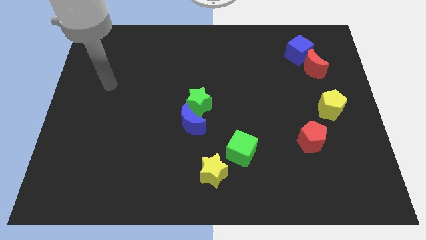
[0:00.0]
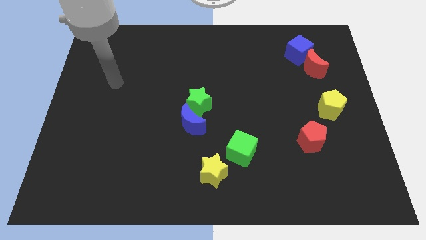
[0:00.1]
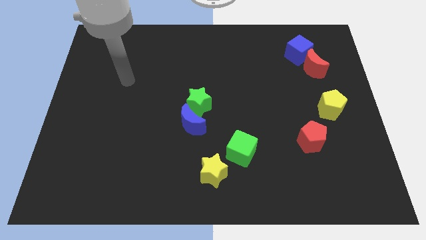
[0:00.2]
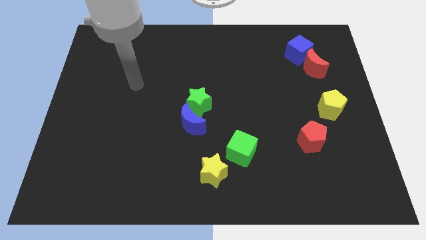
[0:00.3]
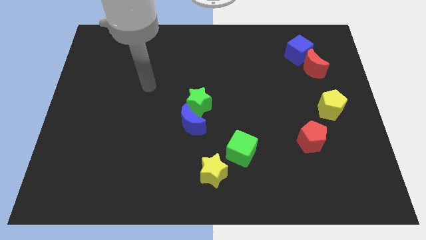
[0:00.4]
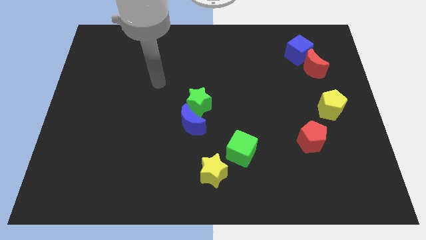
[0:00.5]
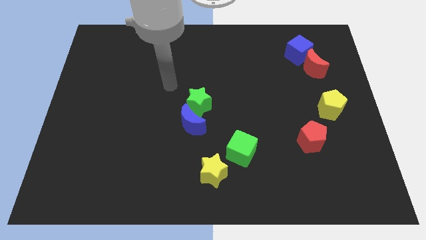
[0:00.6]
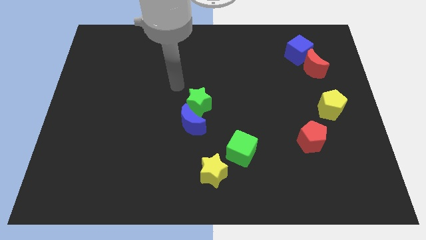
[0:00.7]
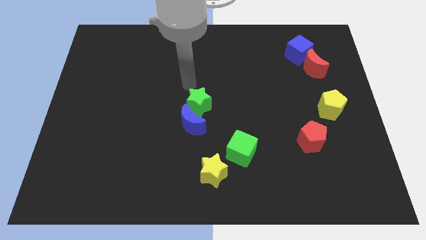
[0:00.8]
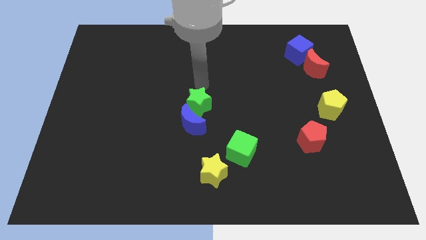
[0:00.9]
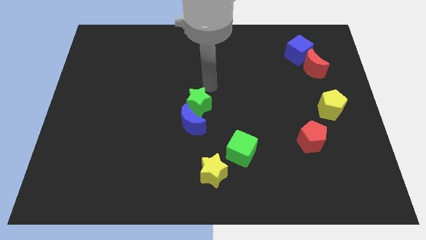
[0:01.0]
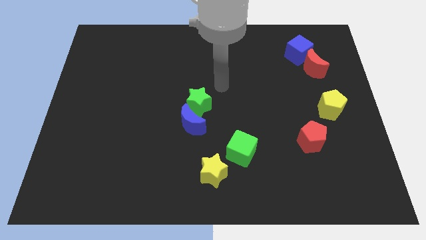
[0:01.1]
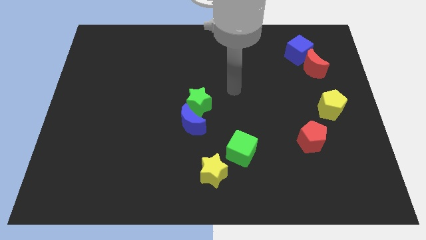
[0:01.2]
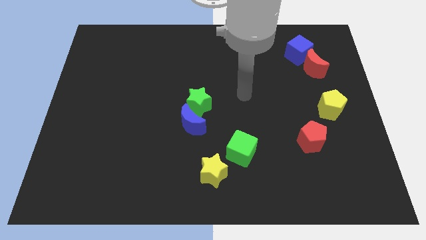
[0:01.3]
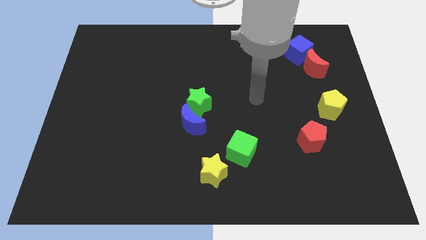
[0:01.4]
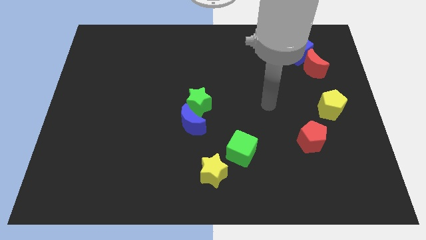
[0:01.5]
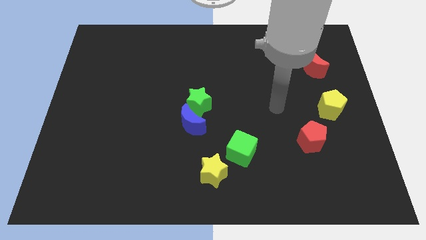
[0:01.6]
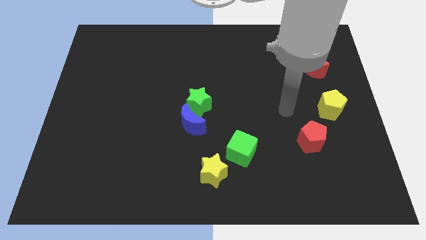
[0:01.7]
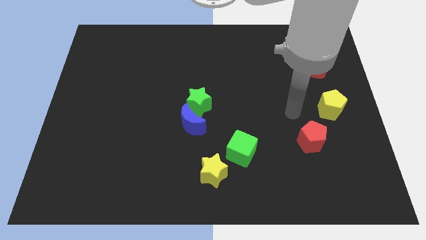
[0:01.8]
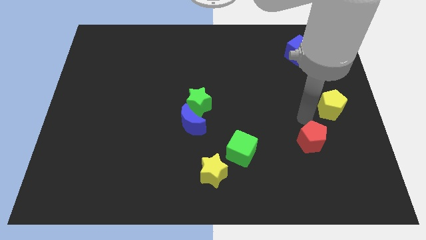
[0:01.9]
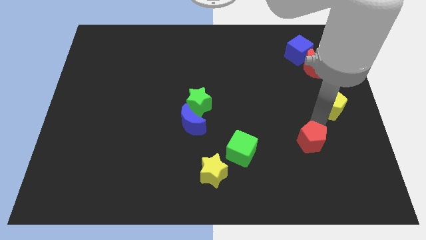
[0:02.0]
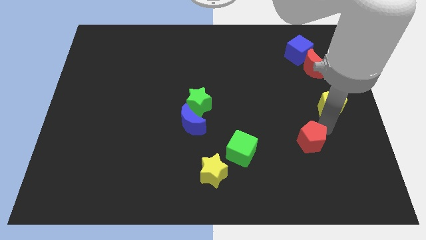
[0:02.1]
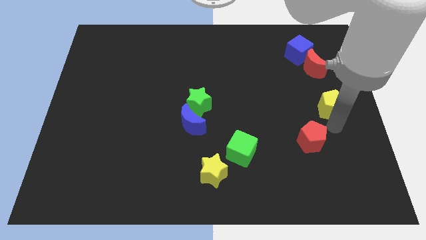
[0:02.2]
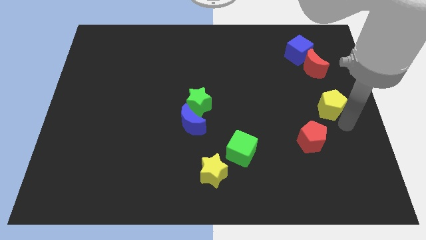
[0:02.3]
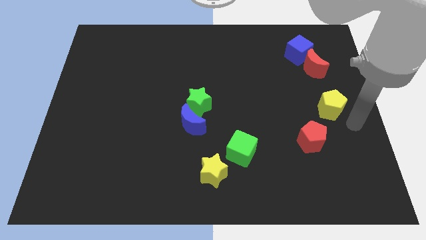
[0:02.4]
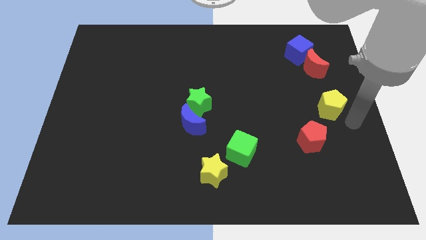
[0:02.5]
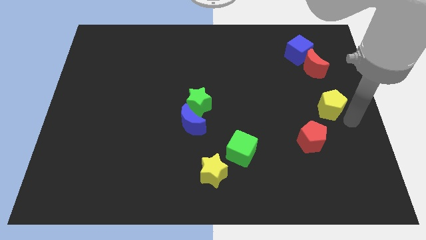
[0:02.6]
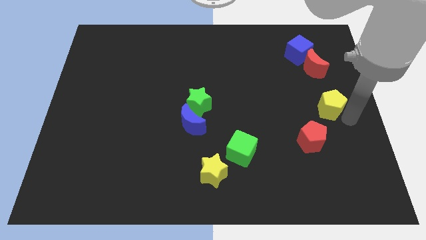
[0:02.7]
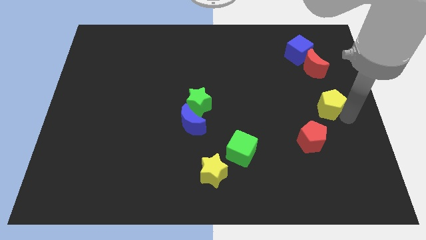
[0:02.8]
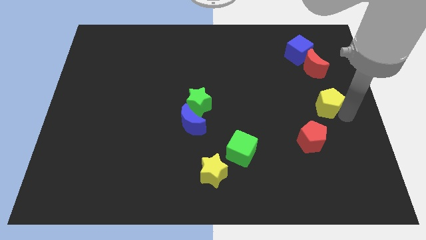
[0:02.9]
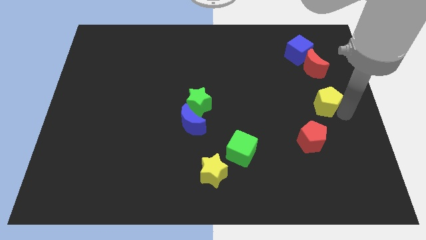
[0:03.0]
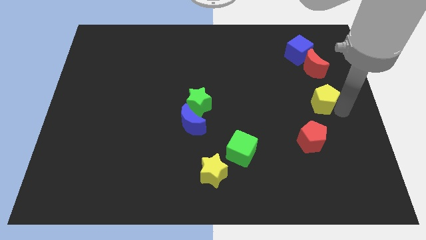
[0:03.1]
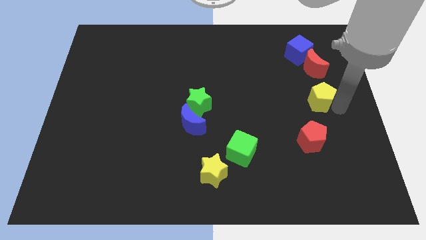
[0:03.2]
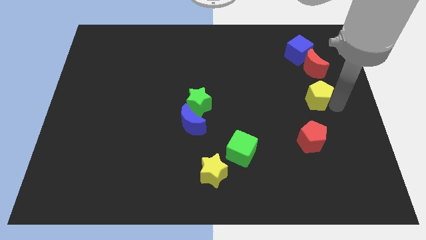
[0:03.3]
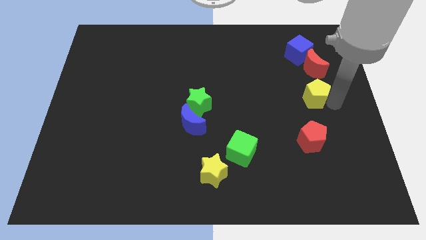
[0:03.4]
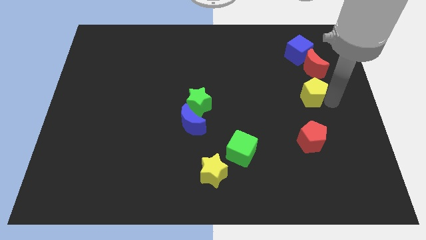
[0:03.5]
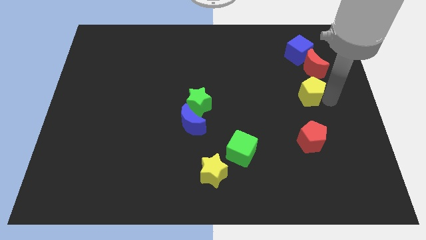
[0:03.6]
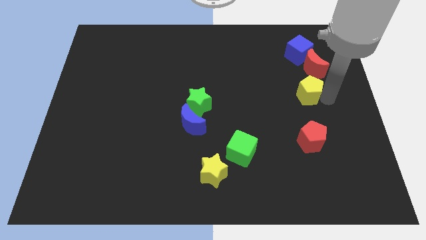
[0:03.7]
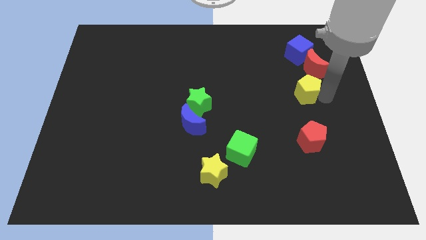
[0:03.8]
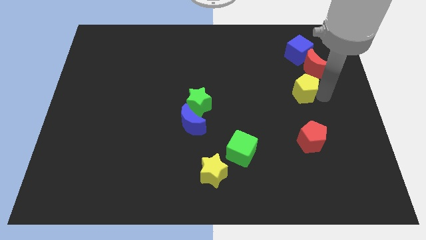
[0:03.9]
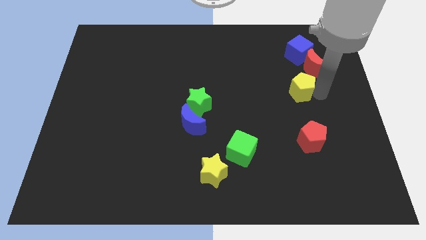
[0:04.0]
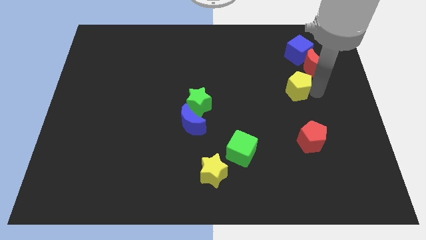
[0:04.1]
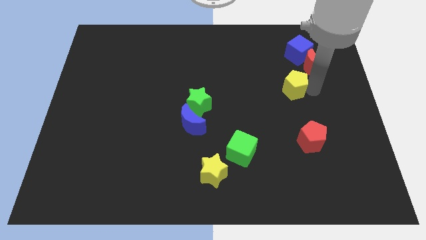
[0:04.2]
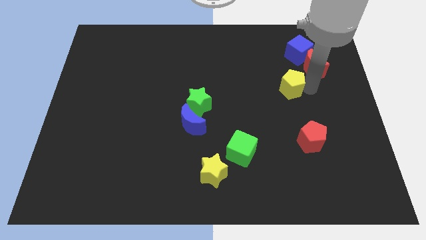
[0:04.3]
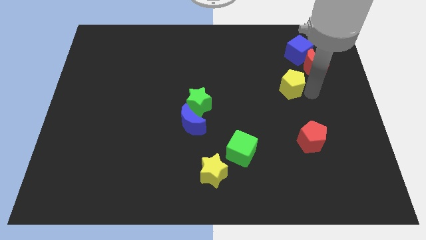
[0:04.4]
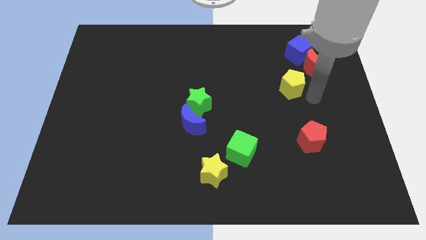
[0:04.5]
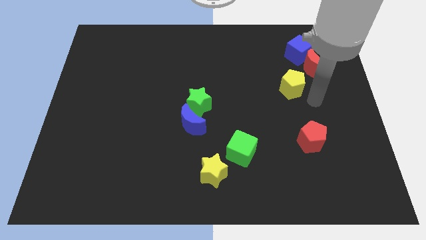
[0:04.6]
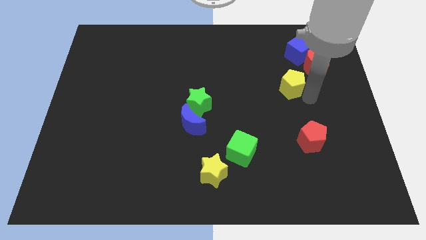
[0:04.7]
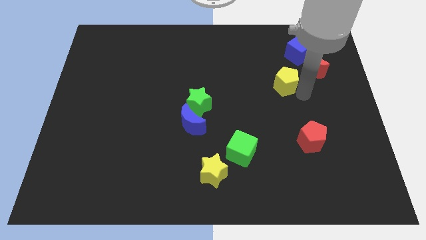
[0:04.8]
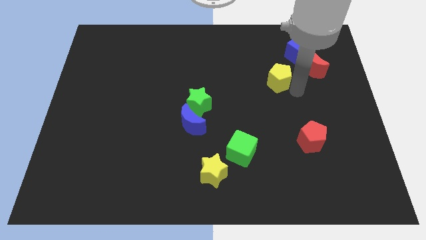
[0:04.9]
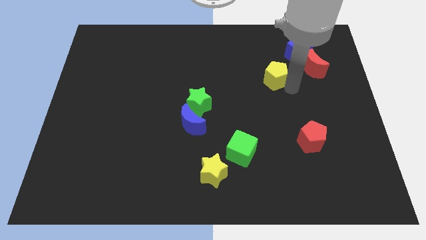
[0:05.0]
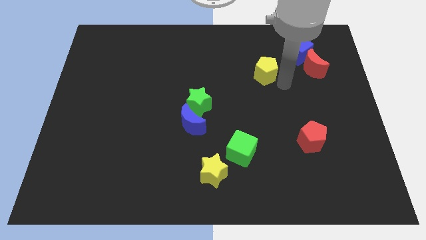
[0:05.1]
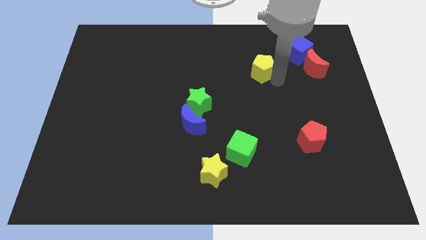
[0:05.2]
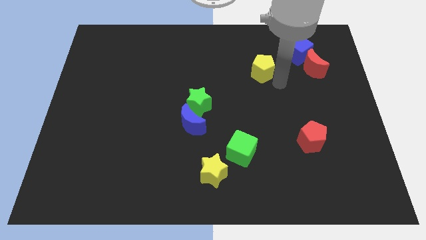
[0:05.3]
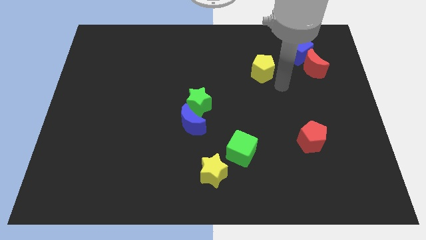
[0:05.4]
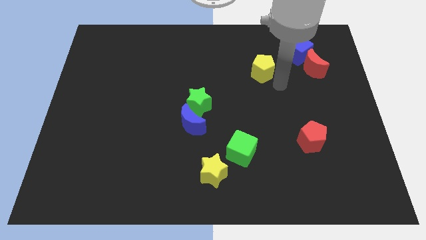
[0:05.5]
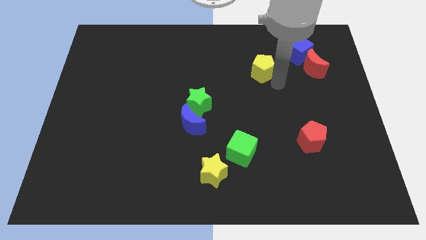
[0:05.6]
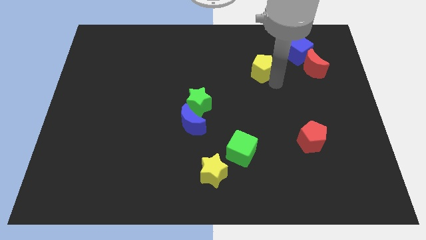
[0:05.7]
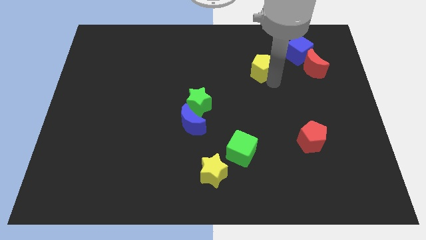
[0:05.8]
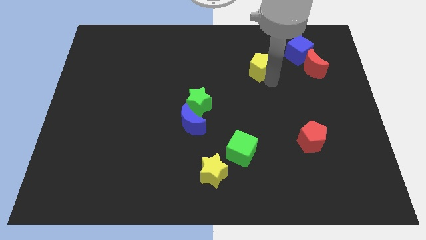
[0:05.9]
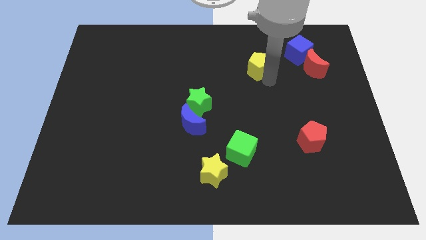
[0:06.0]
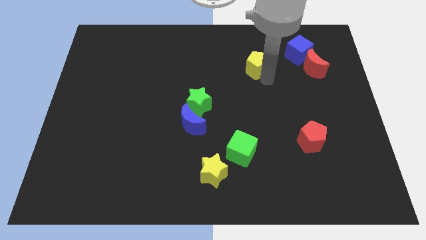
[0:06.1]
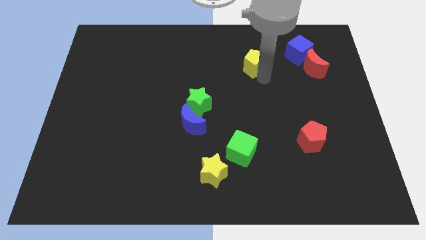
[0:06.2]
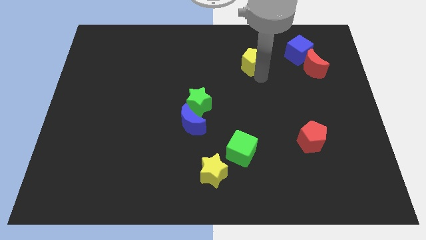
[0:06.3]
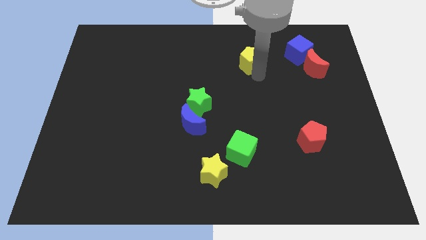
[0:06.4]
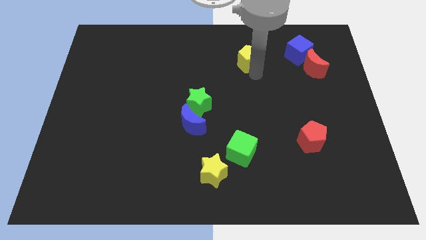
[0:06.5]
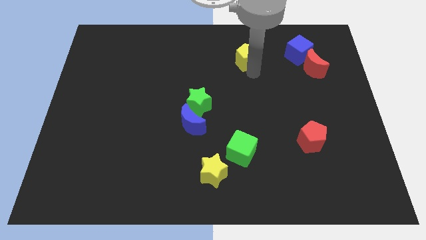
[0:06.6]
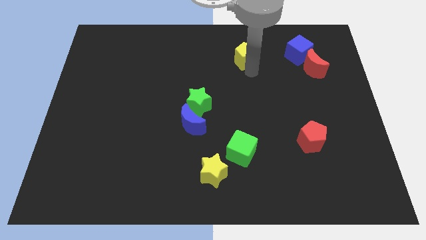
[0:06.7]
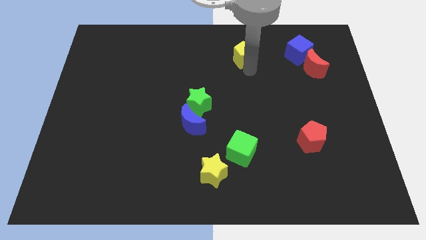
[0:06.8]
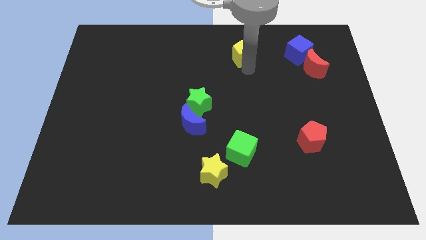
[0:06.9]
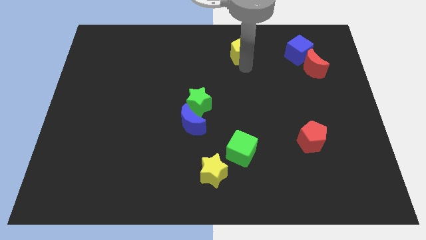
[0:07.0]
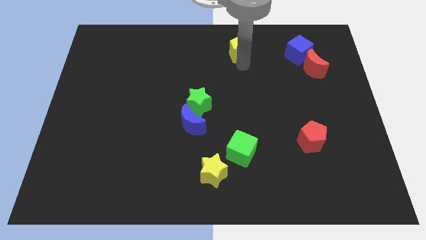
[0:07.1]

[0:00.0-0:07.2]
move the yellow pentagon to the top
